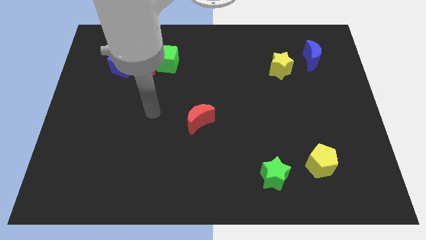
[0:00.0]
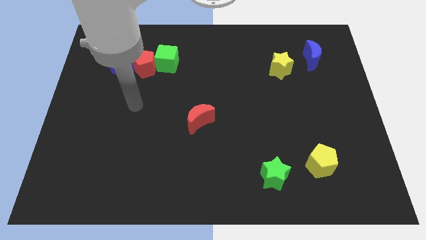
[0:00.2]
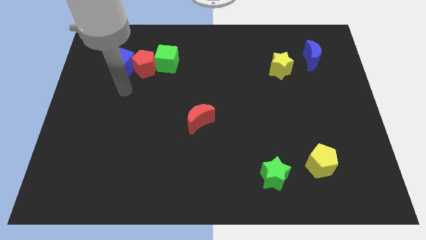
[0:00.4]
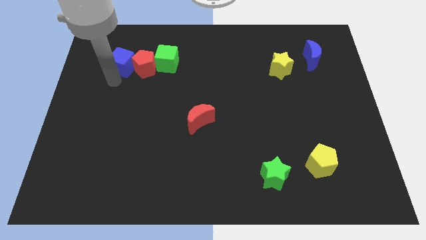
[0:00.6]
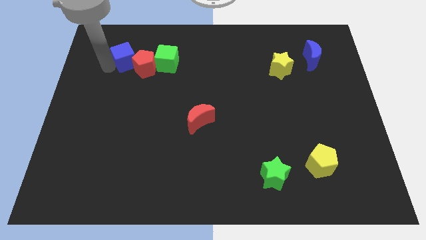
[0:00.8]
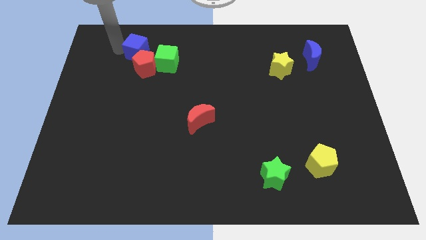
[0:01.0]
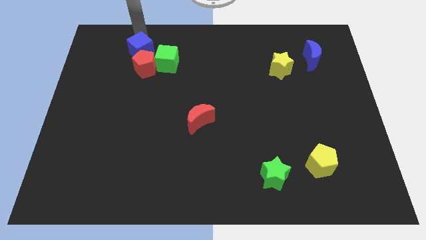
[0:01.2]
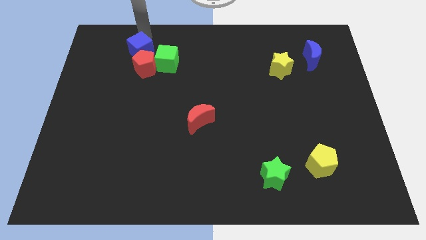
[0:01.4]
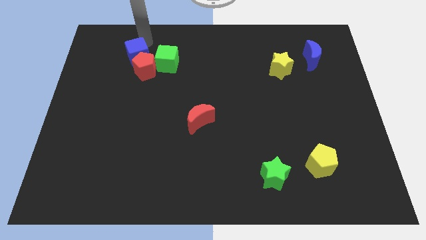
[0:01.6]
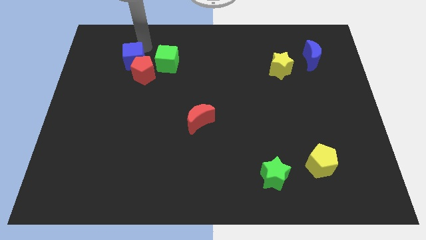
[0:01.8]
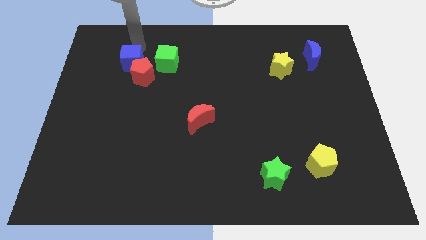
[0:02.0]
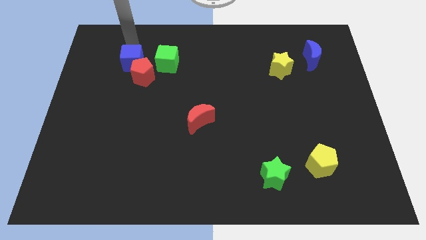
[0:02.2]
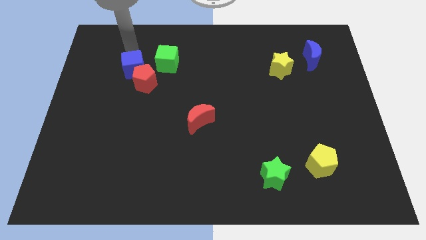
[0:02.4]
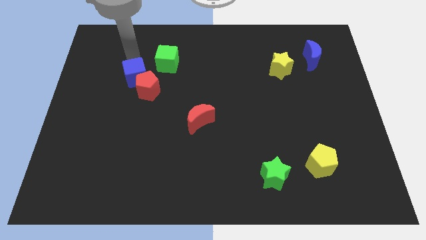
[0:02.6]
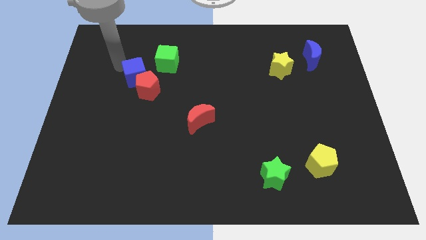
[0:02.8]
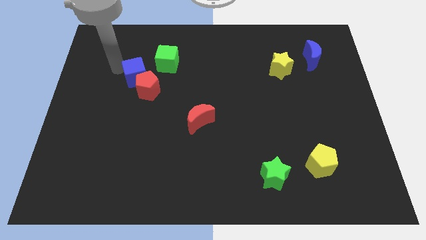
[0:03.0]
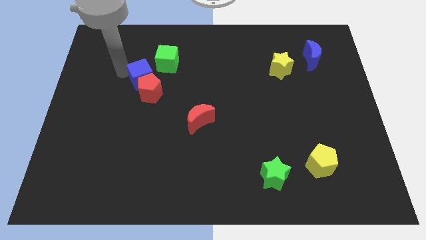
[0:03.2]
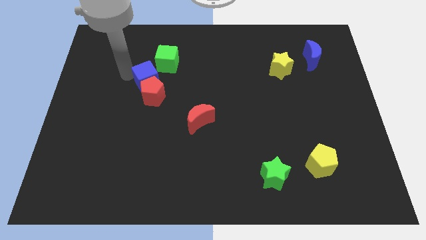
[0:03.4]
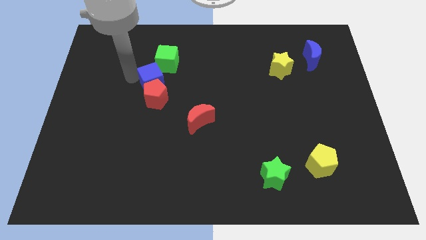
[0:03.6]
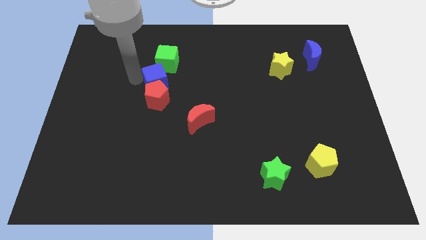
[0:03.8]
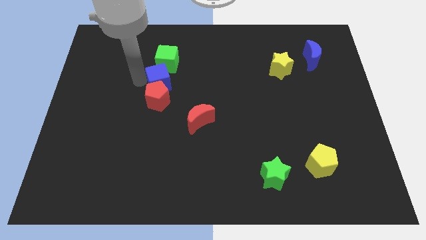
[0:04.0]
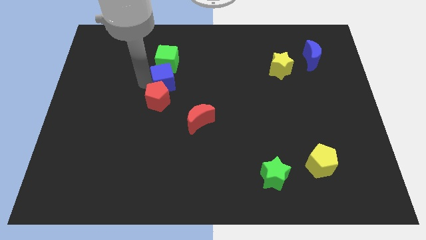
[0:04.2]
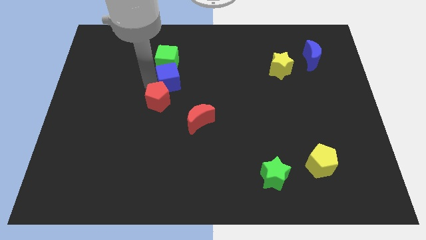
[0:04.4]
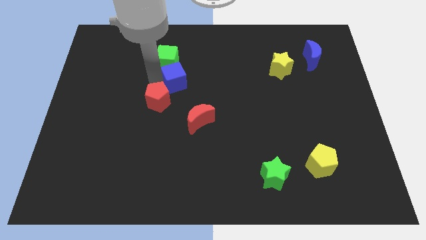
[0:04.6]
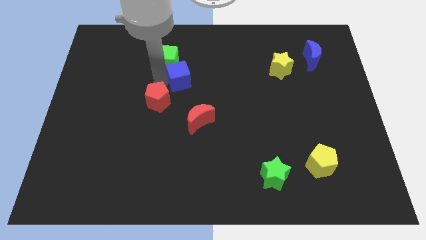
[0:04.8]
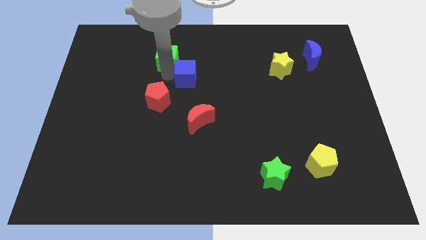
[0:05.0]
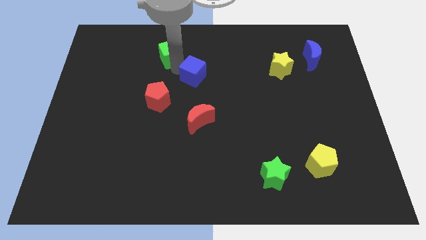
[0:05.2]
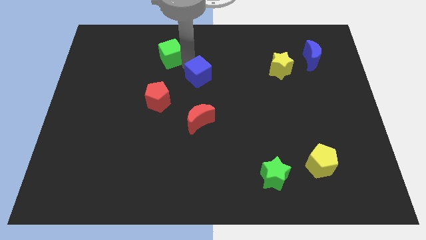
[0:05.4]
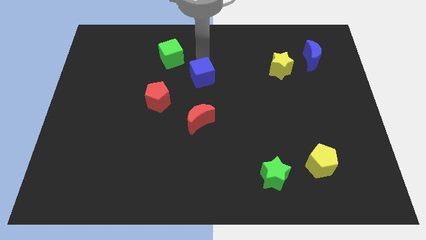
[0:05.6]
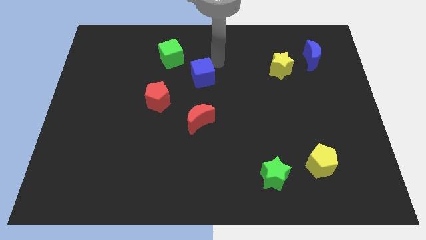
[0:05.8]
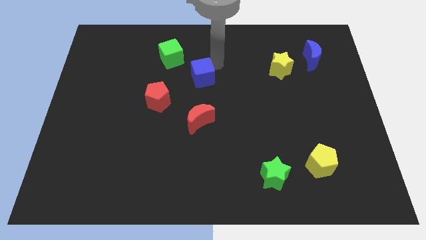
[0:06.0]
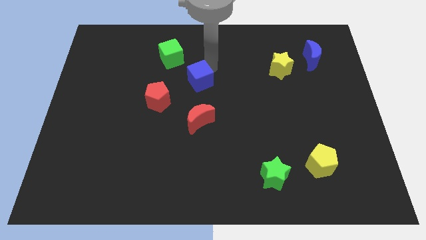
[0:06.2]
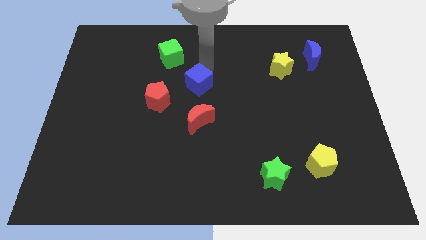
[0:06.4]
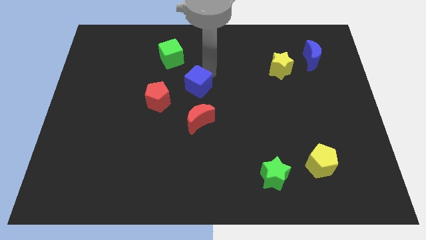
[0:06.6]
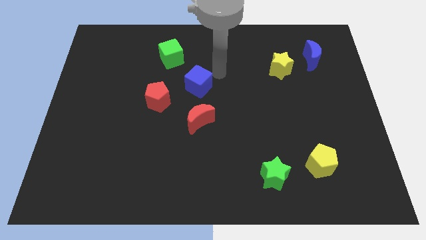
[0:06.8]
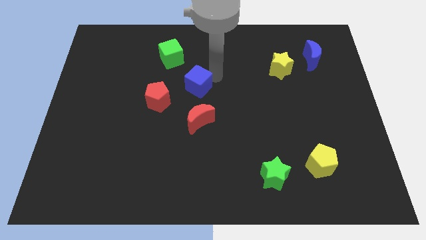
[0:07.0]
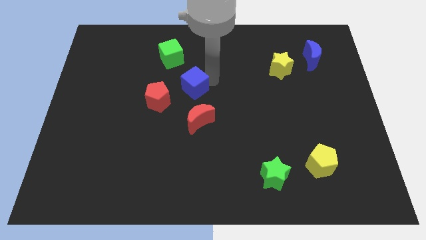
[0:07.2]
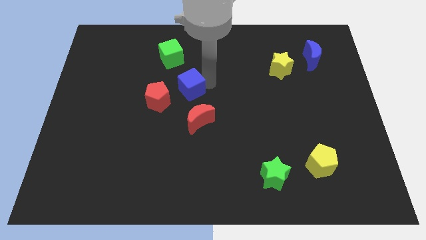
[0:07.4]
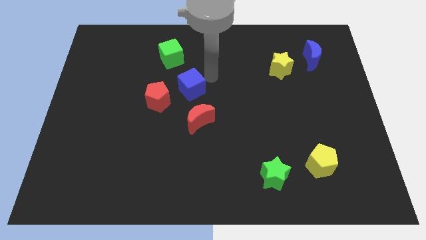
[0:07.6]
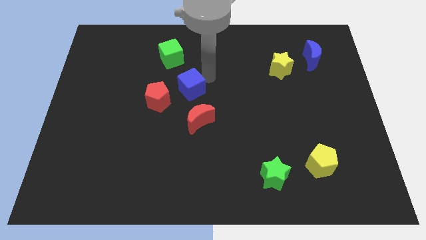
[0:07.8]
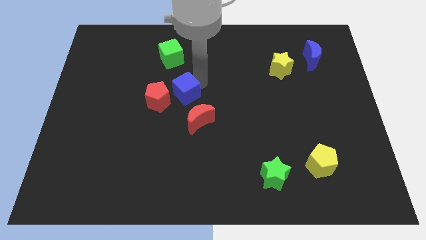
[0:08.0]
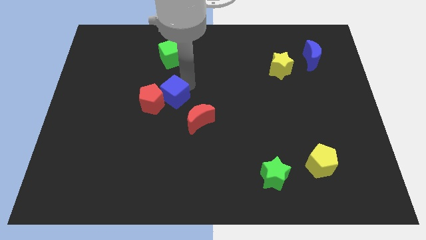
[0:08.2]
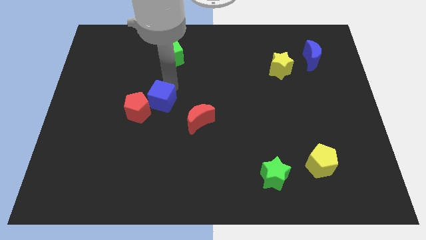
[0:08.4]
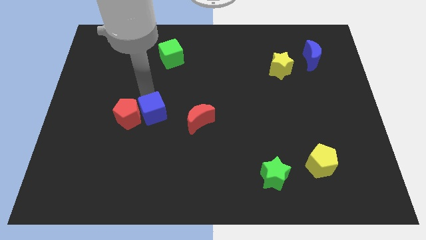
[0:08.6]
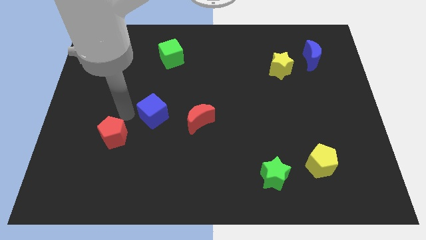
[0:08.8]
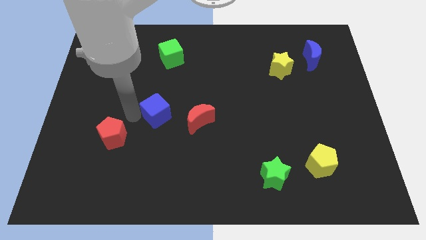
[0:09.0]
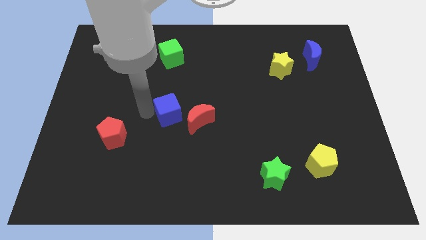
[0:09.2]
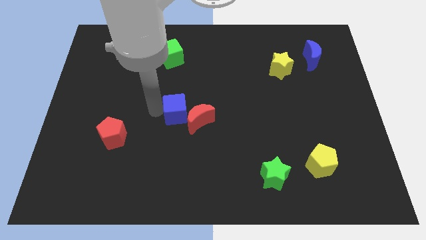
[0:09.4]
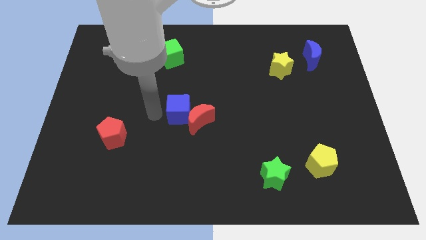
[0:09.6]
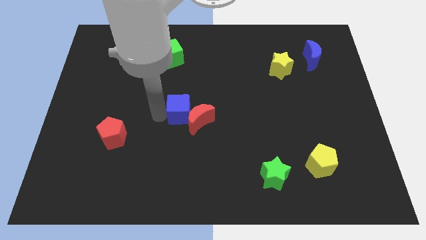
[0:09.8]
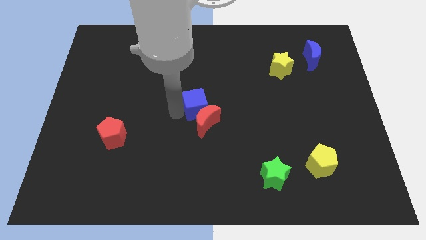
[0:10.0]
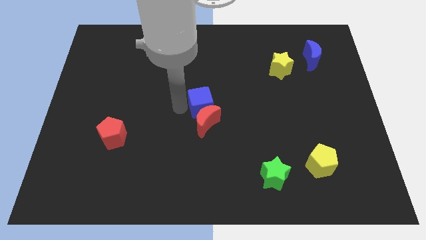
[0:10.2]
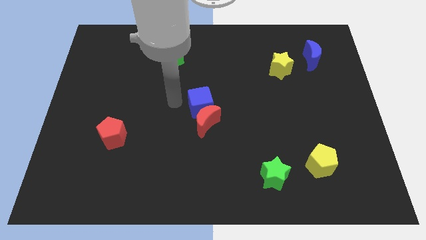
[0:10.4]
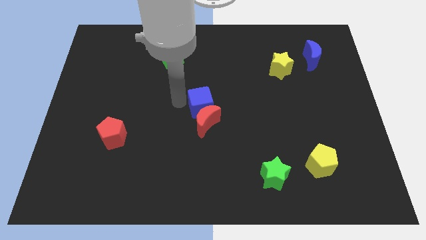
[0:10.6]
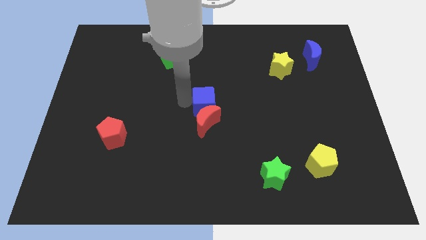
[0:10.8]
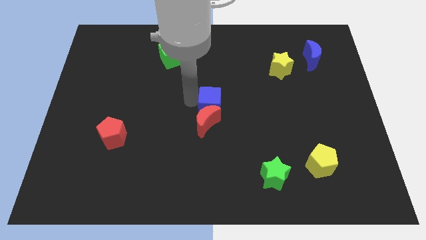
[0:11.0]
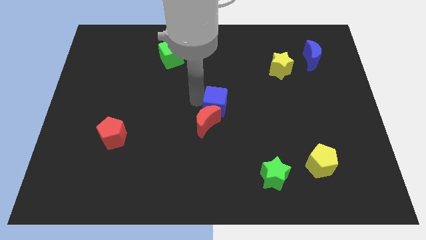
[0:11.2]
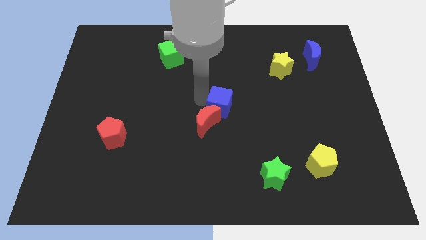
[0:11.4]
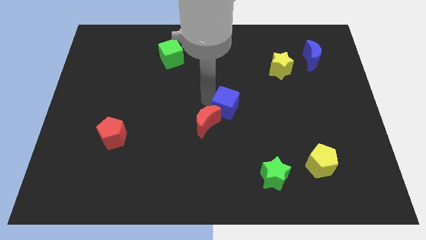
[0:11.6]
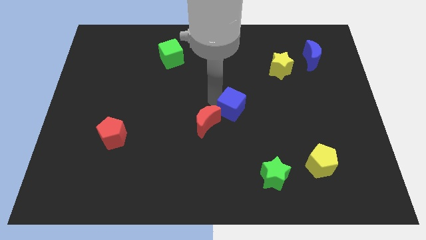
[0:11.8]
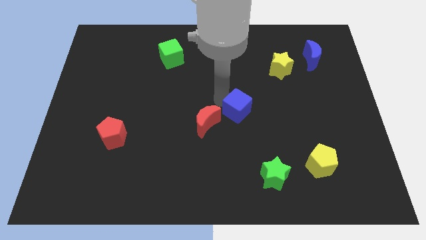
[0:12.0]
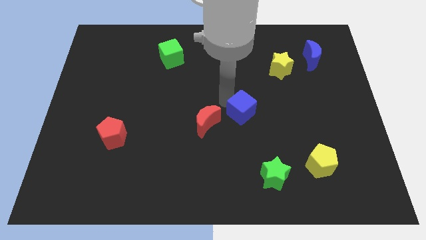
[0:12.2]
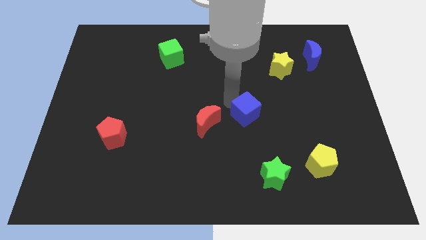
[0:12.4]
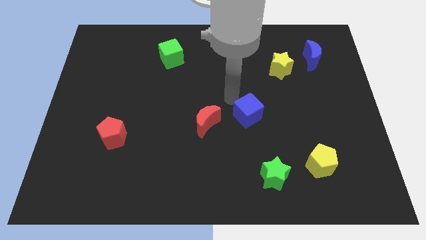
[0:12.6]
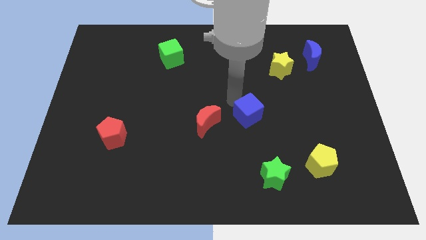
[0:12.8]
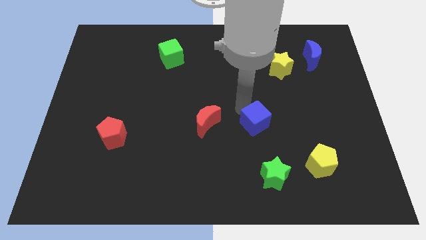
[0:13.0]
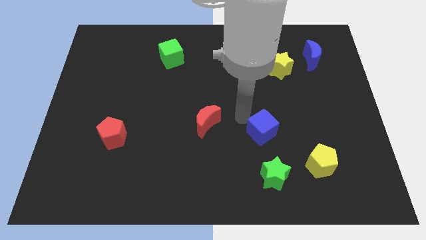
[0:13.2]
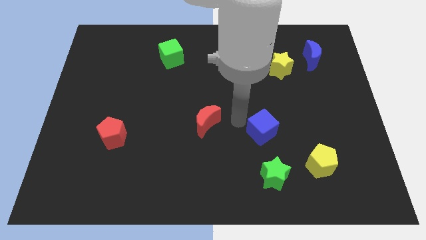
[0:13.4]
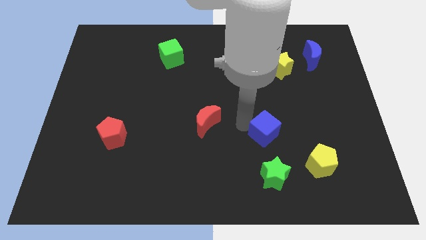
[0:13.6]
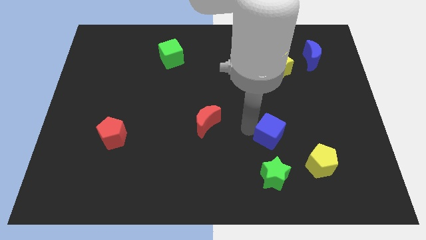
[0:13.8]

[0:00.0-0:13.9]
push the blue cube diagonally up and to the left of the yellow pentagon
